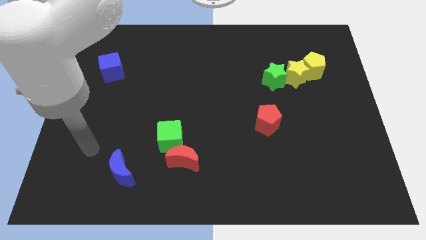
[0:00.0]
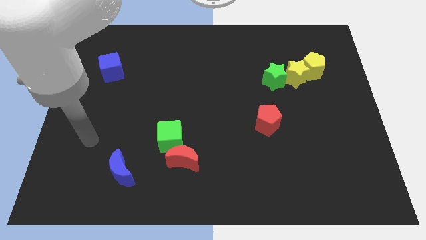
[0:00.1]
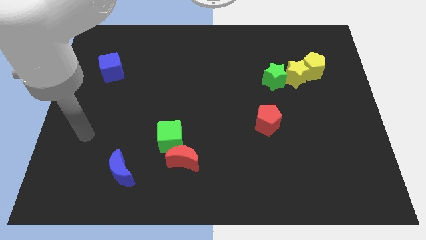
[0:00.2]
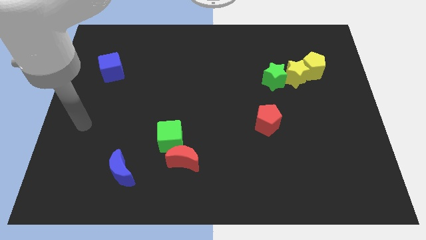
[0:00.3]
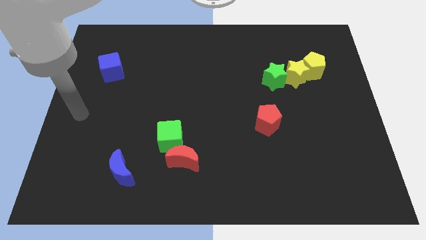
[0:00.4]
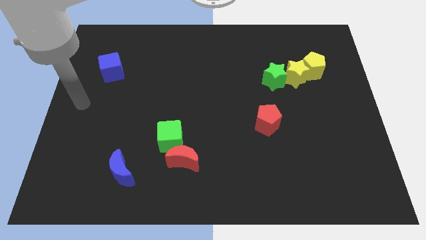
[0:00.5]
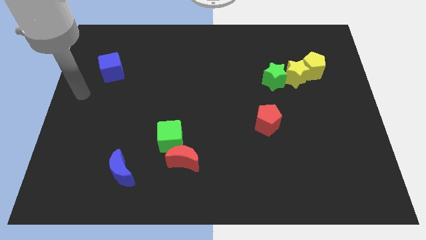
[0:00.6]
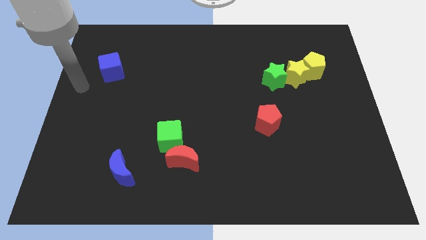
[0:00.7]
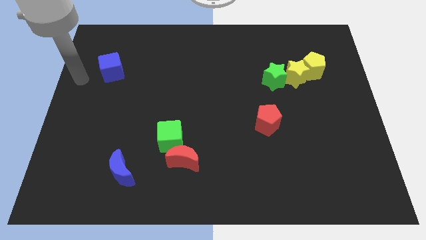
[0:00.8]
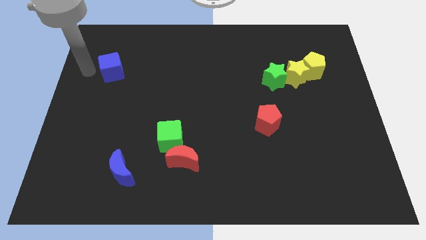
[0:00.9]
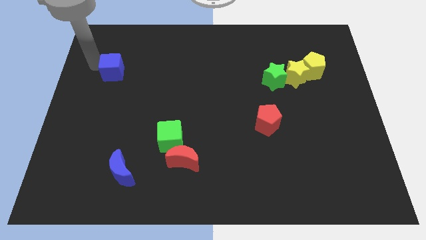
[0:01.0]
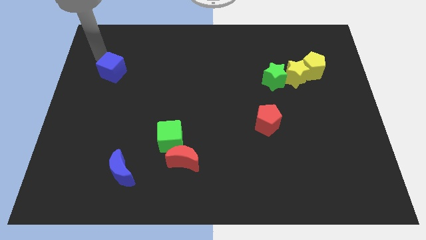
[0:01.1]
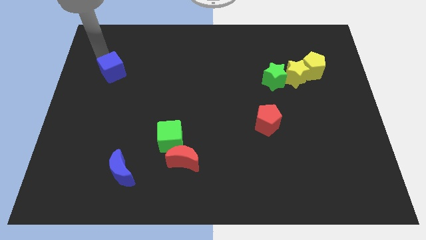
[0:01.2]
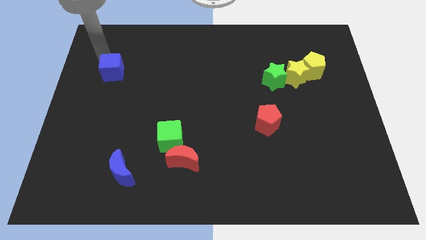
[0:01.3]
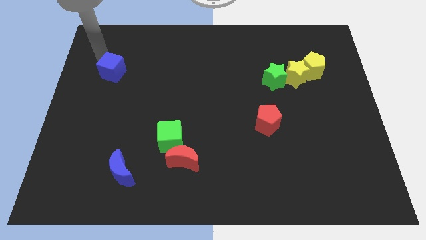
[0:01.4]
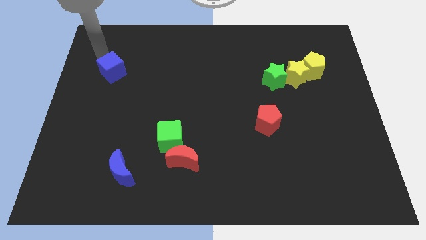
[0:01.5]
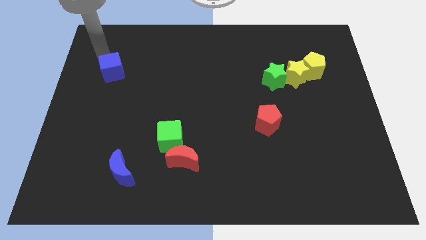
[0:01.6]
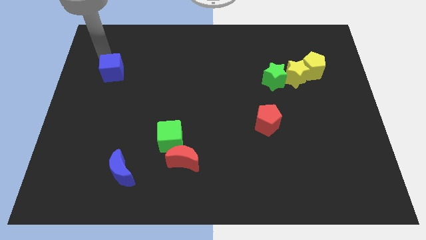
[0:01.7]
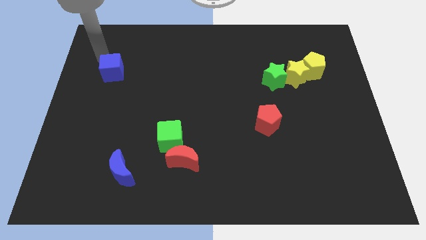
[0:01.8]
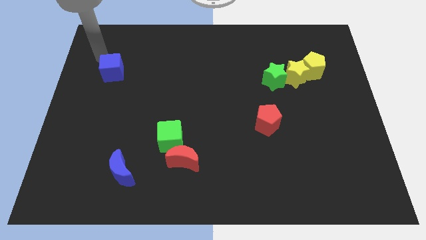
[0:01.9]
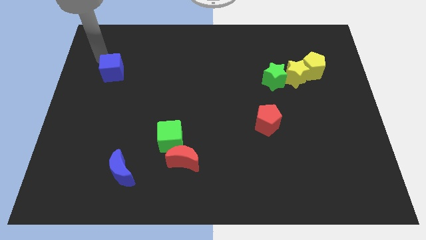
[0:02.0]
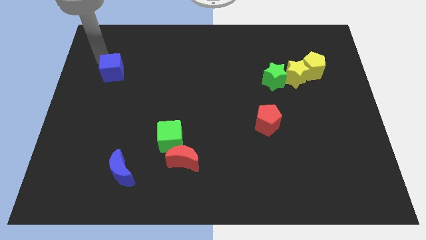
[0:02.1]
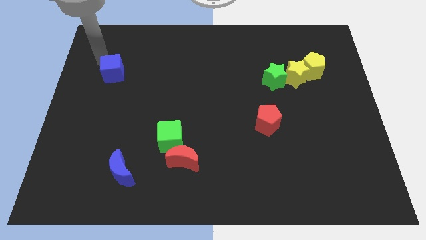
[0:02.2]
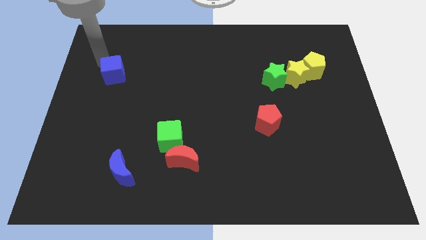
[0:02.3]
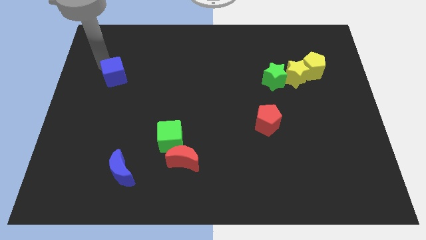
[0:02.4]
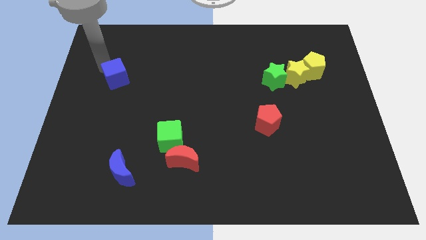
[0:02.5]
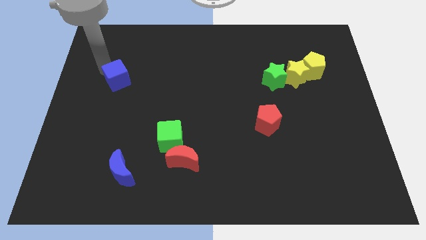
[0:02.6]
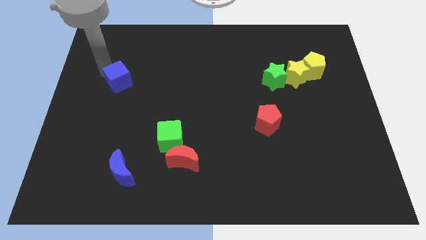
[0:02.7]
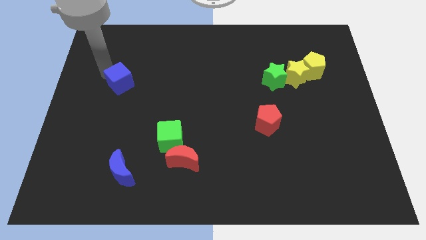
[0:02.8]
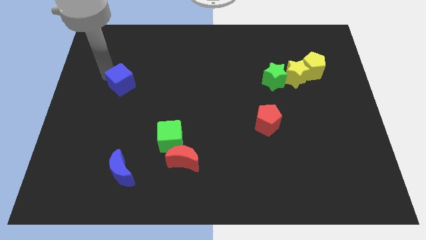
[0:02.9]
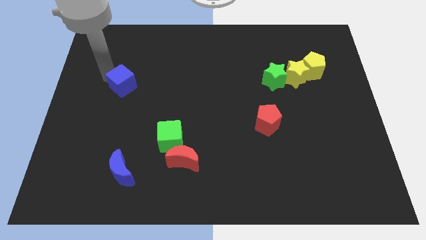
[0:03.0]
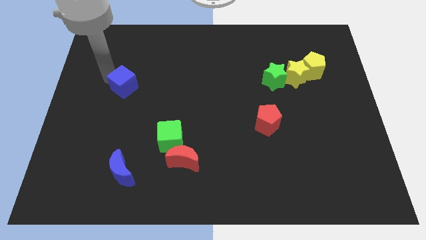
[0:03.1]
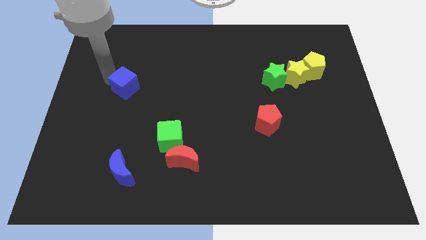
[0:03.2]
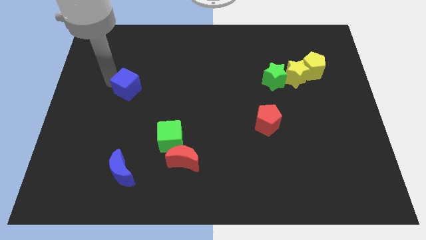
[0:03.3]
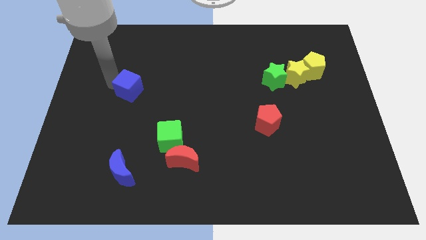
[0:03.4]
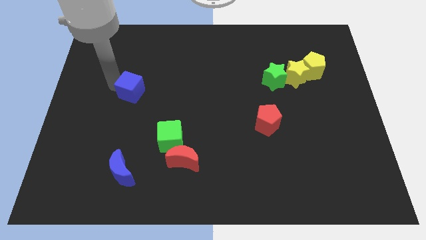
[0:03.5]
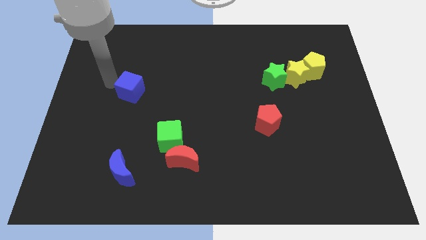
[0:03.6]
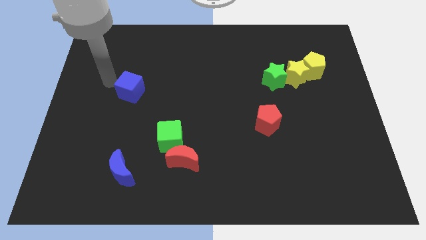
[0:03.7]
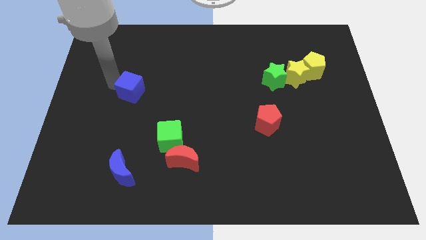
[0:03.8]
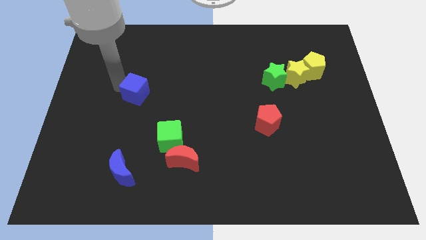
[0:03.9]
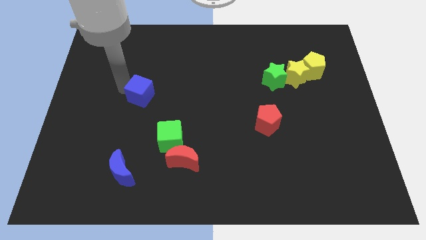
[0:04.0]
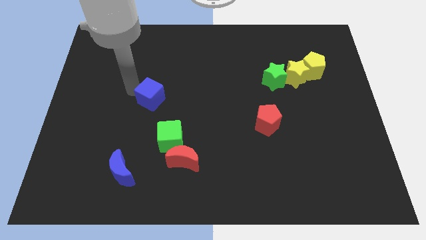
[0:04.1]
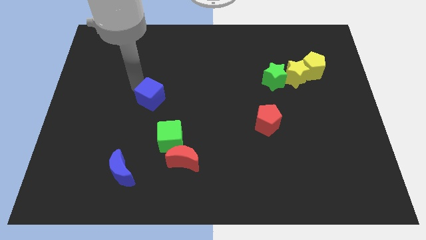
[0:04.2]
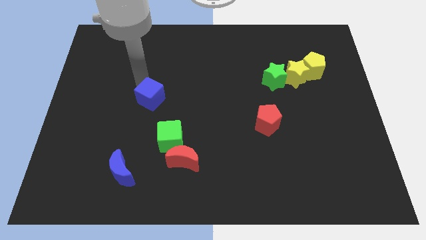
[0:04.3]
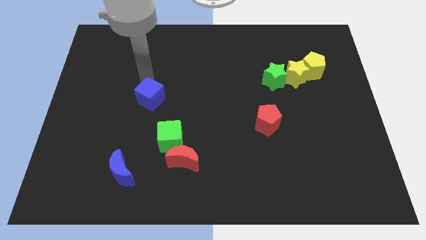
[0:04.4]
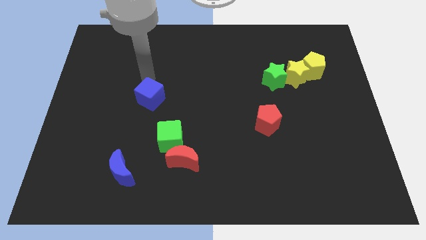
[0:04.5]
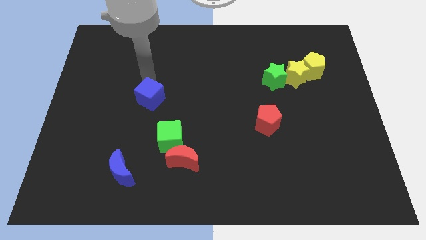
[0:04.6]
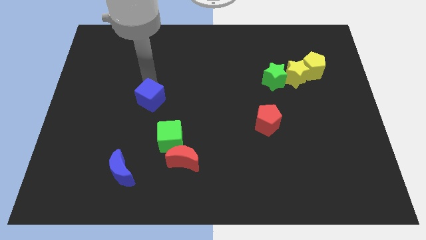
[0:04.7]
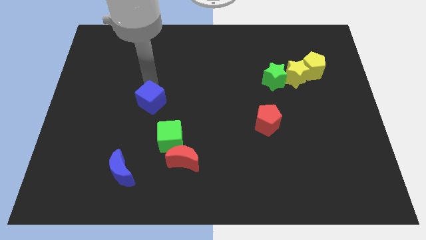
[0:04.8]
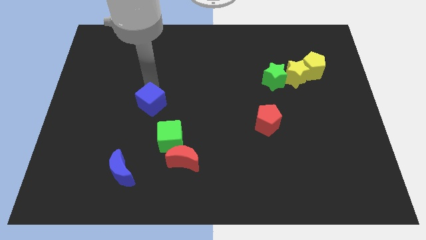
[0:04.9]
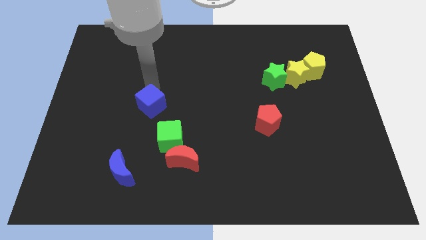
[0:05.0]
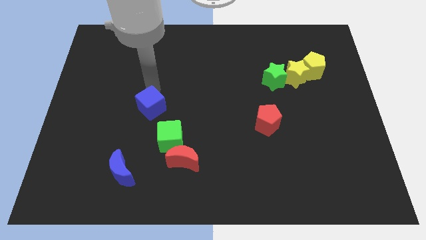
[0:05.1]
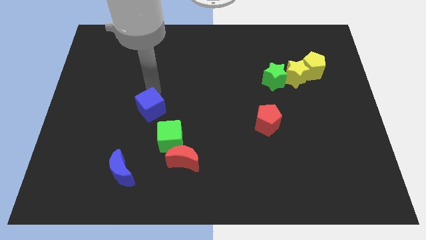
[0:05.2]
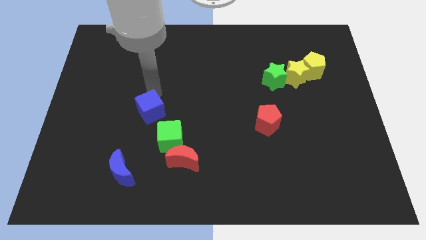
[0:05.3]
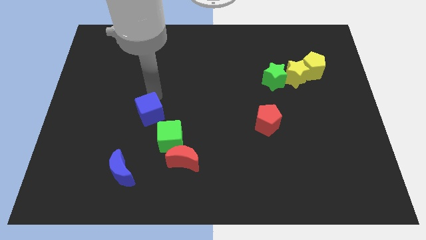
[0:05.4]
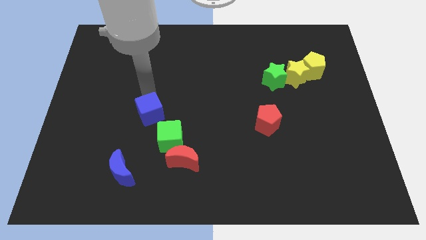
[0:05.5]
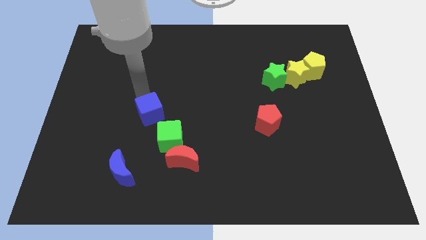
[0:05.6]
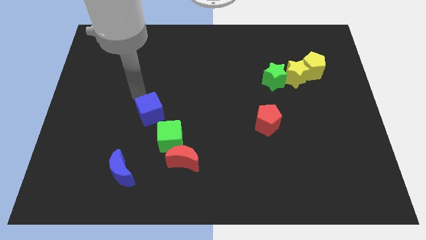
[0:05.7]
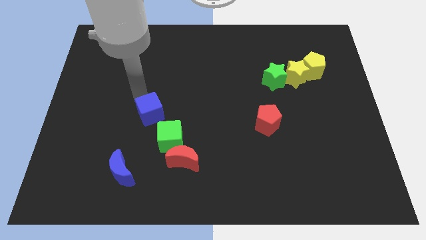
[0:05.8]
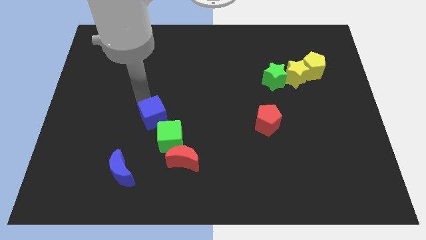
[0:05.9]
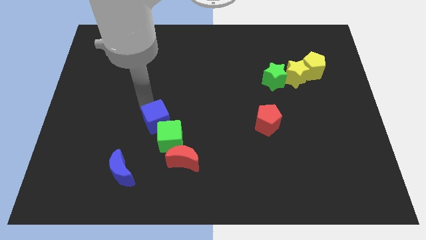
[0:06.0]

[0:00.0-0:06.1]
slide the blue cube towards the green cube

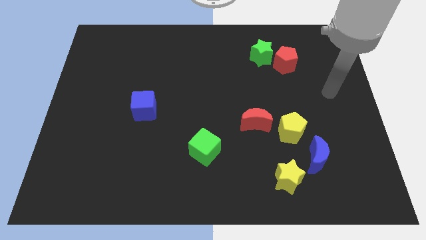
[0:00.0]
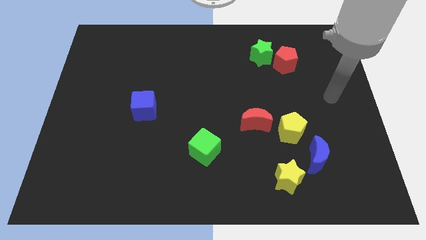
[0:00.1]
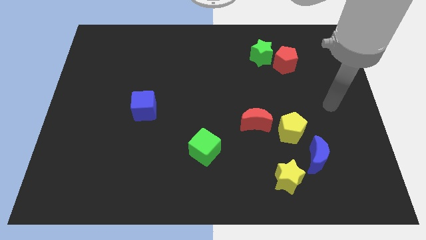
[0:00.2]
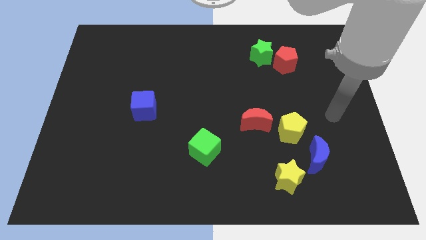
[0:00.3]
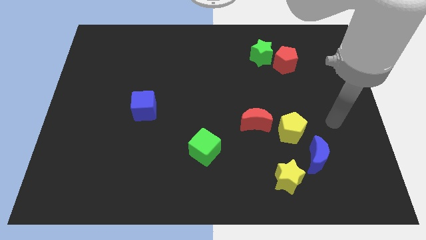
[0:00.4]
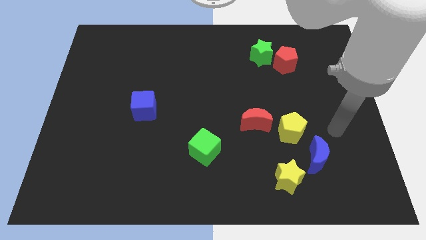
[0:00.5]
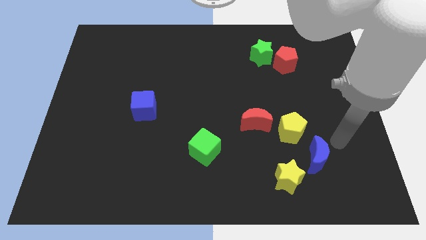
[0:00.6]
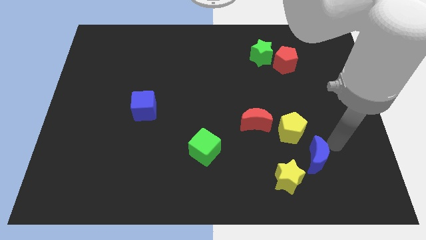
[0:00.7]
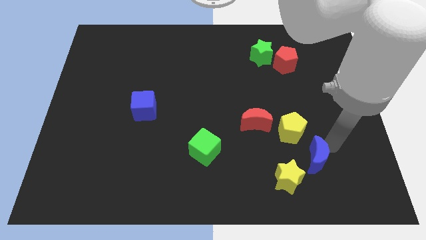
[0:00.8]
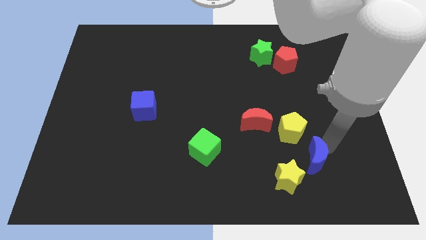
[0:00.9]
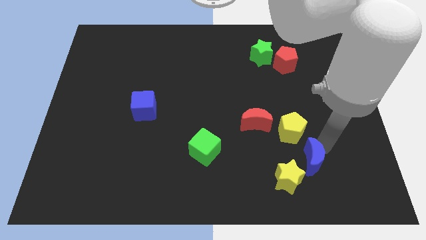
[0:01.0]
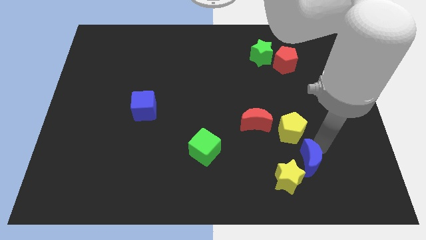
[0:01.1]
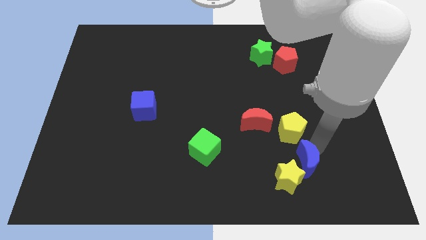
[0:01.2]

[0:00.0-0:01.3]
put the blue moon towards the yellow star

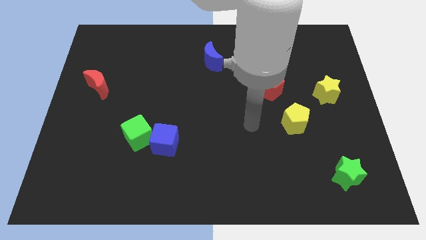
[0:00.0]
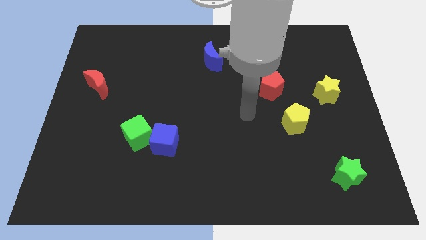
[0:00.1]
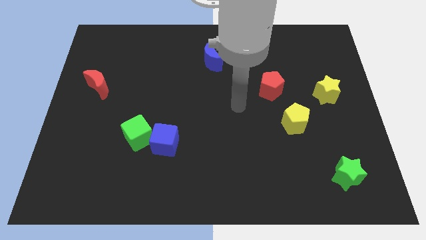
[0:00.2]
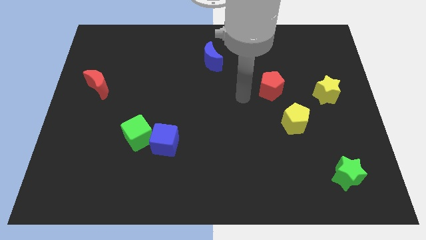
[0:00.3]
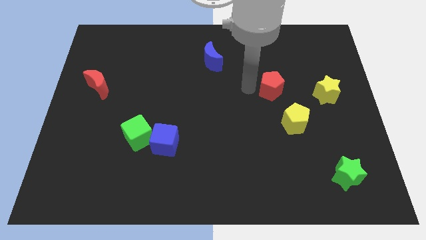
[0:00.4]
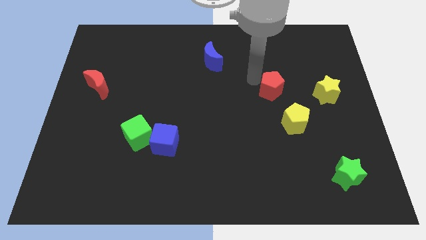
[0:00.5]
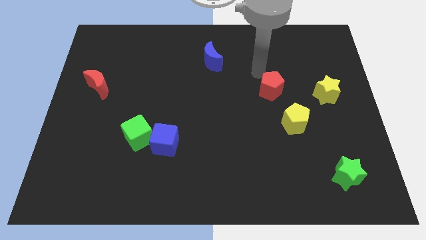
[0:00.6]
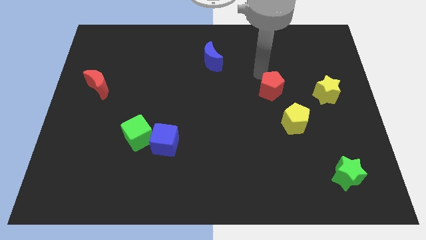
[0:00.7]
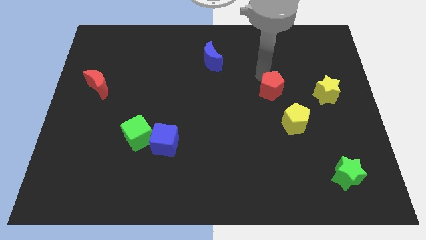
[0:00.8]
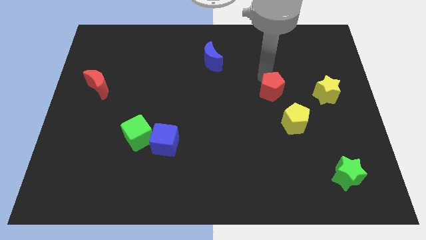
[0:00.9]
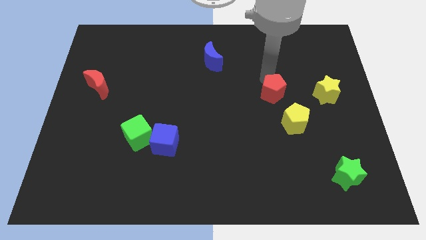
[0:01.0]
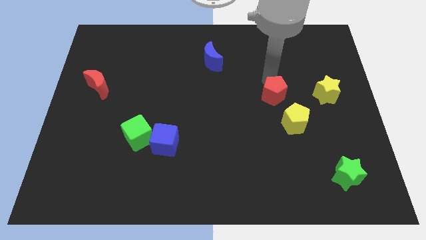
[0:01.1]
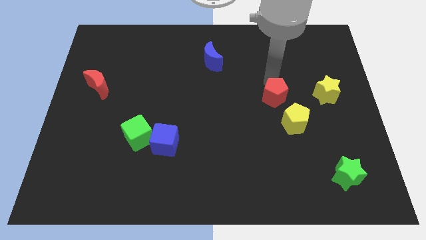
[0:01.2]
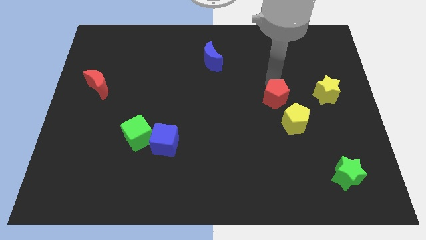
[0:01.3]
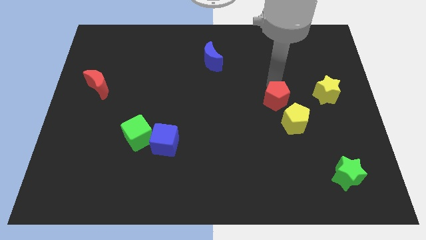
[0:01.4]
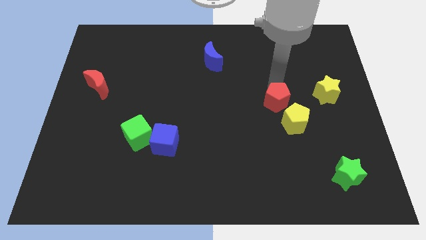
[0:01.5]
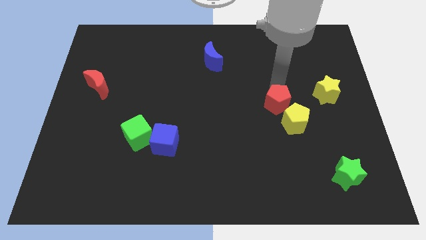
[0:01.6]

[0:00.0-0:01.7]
move the red pentagon towards the yellow pentagon
